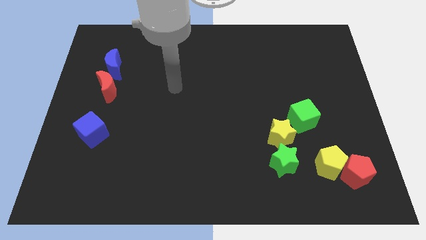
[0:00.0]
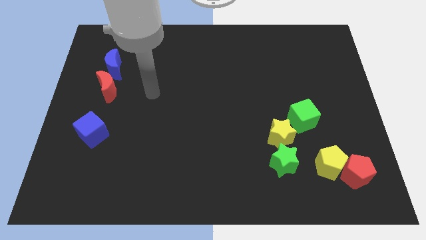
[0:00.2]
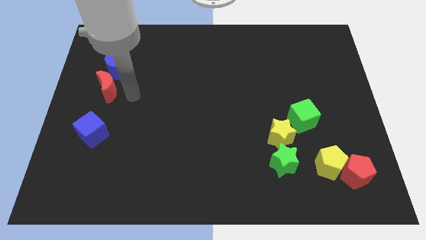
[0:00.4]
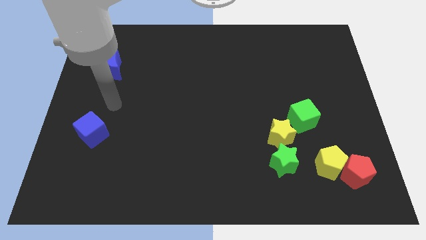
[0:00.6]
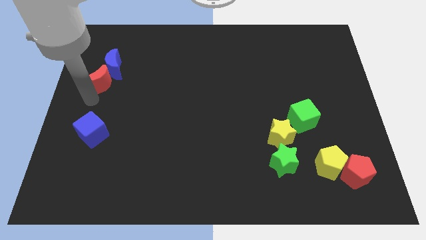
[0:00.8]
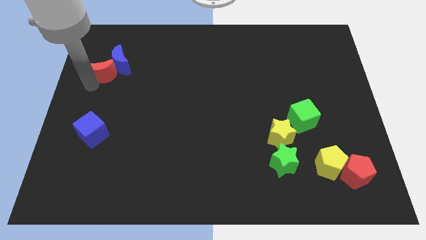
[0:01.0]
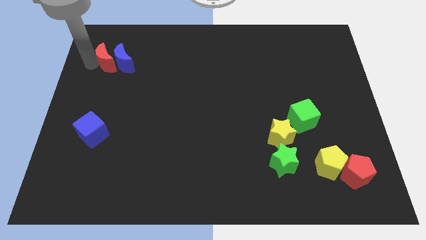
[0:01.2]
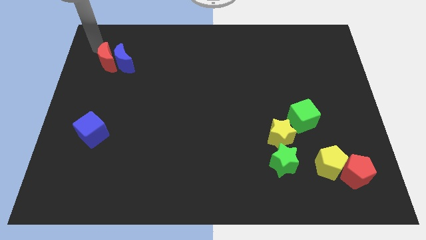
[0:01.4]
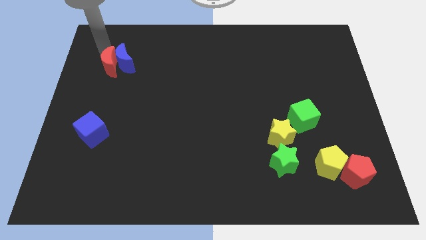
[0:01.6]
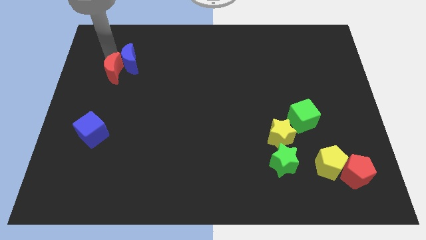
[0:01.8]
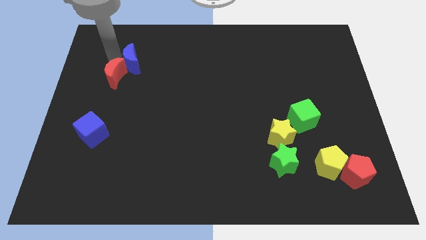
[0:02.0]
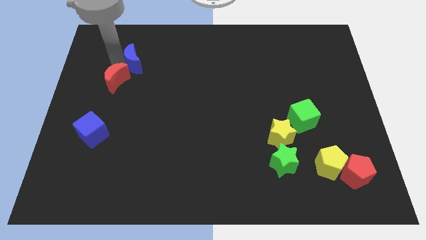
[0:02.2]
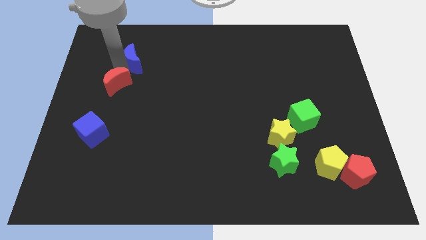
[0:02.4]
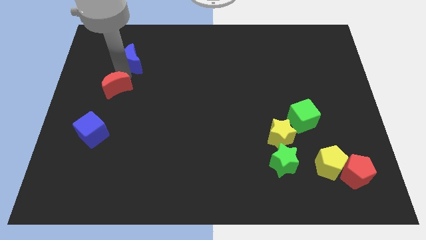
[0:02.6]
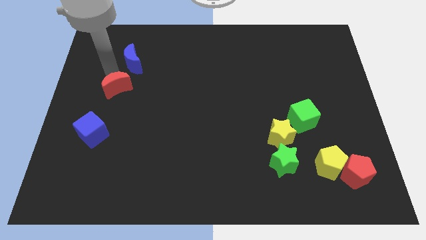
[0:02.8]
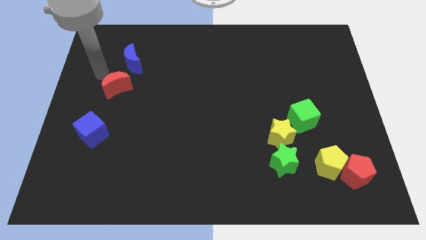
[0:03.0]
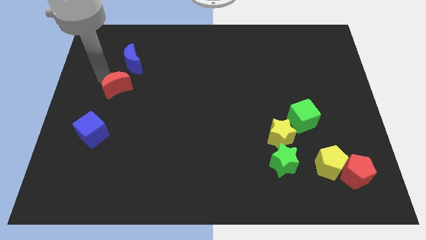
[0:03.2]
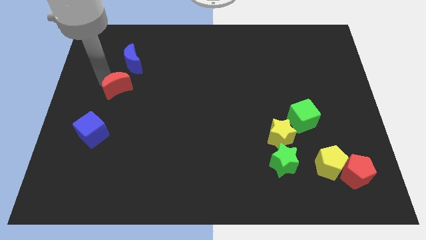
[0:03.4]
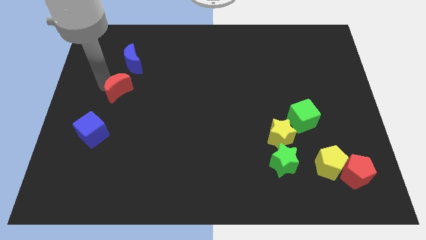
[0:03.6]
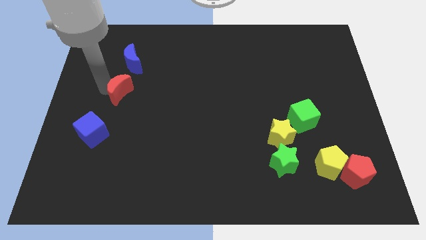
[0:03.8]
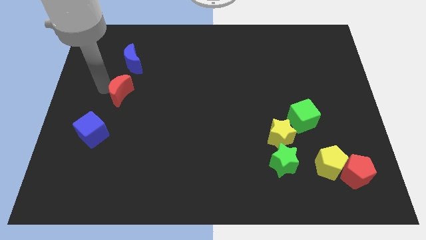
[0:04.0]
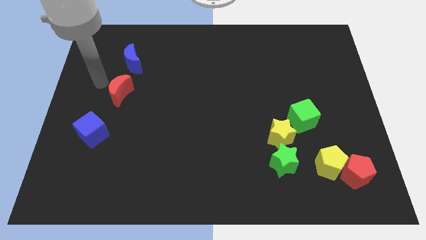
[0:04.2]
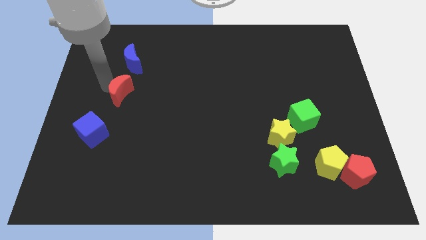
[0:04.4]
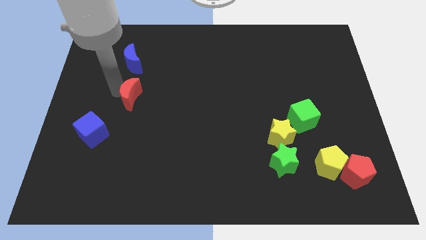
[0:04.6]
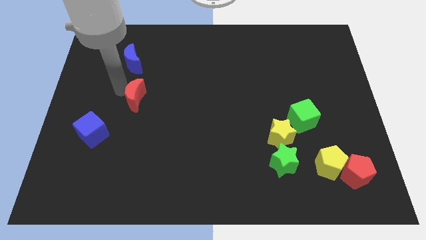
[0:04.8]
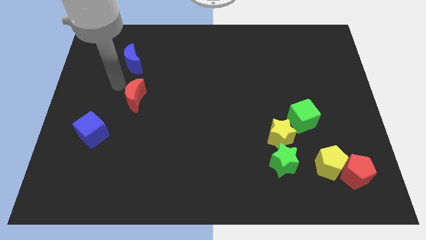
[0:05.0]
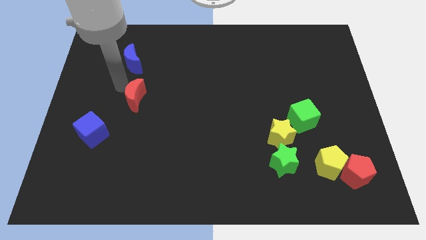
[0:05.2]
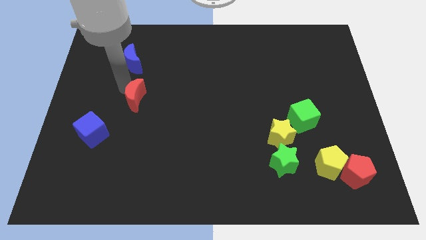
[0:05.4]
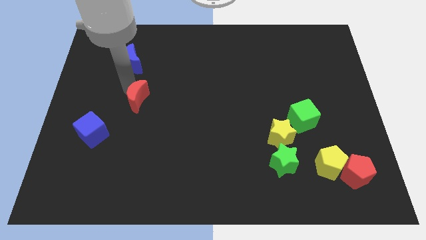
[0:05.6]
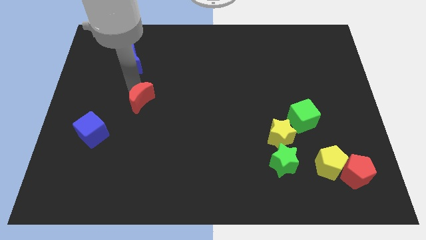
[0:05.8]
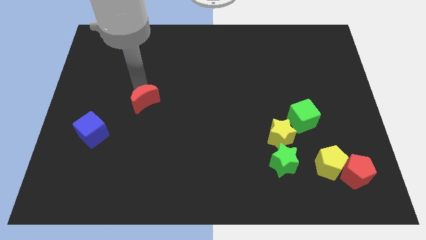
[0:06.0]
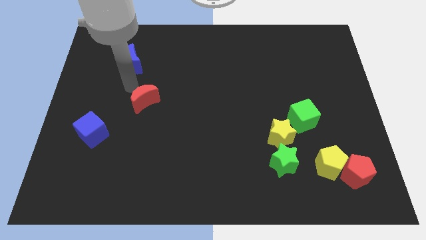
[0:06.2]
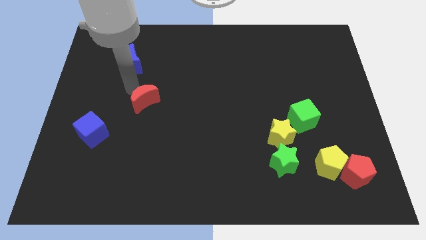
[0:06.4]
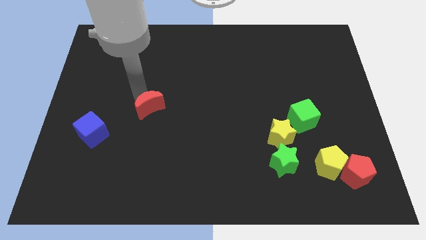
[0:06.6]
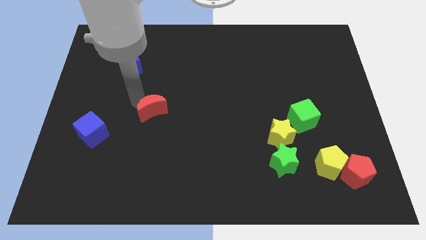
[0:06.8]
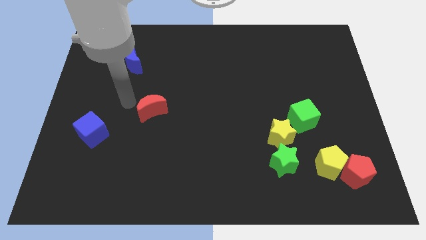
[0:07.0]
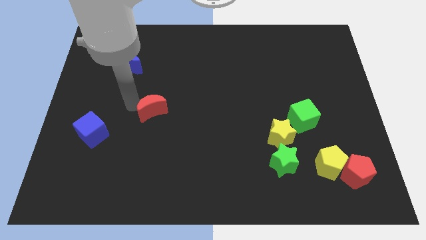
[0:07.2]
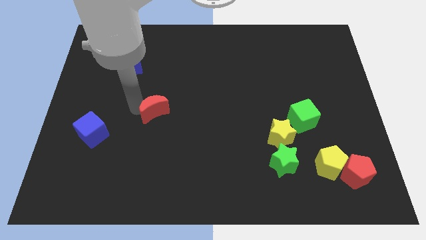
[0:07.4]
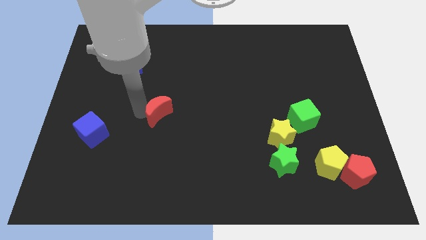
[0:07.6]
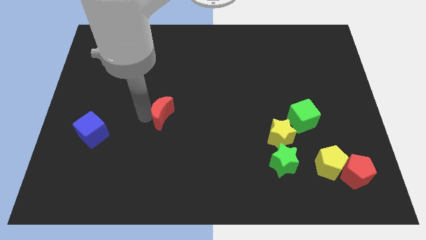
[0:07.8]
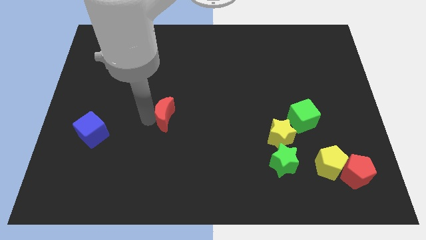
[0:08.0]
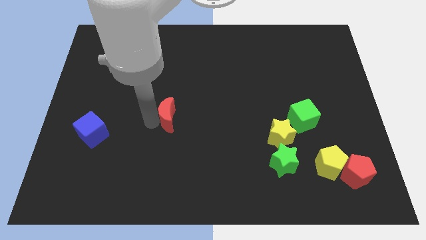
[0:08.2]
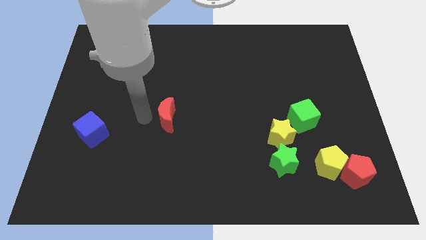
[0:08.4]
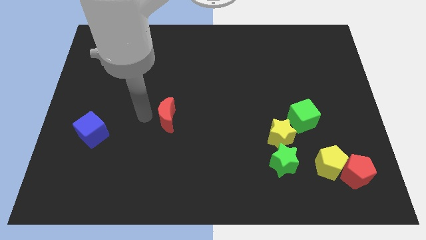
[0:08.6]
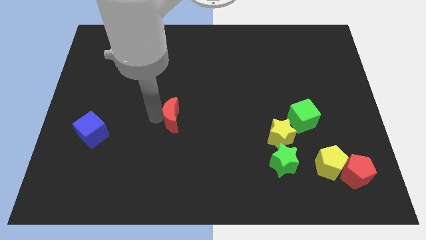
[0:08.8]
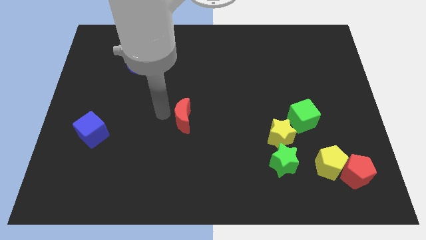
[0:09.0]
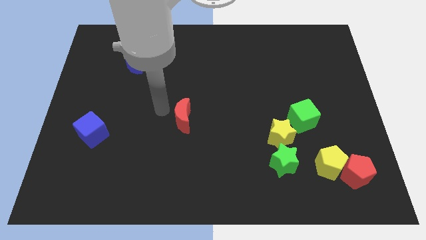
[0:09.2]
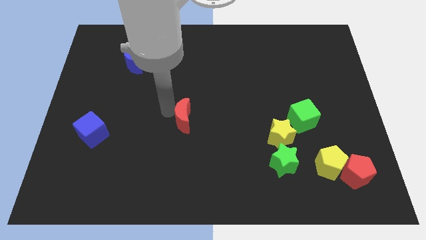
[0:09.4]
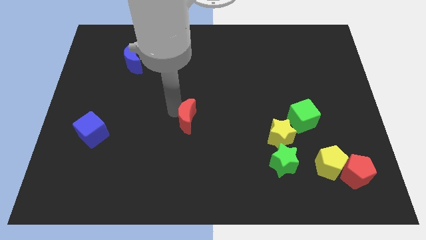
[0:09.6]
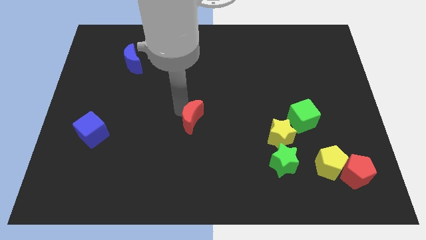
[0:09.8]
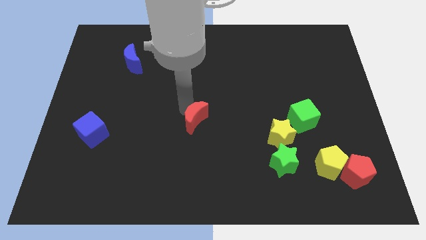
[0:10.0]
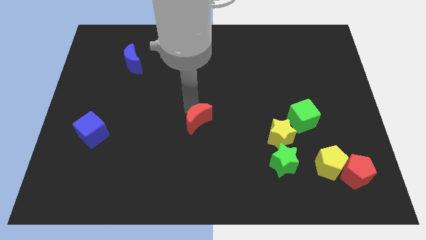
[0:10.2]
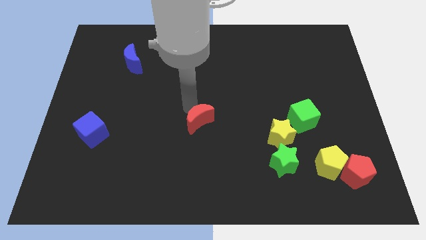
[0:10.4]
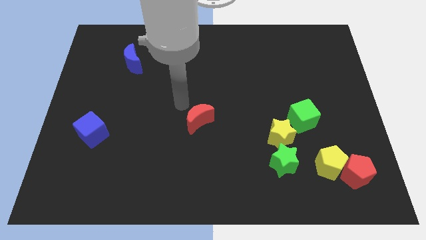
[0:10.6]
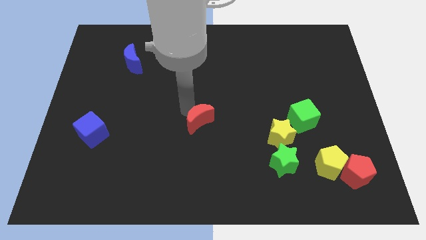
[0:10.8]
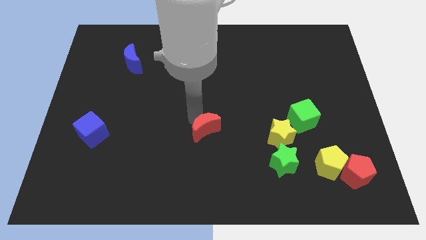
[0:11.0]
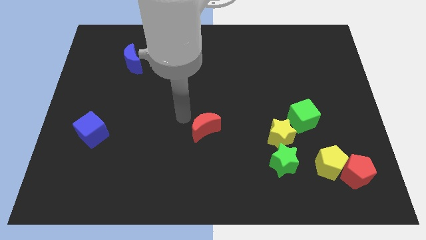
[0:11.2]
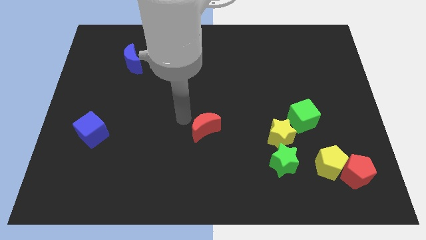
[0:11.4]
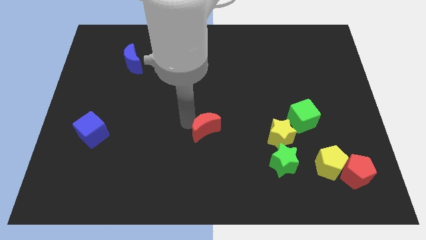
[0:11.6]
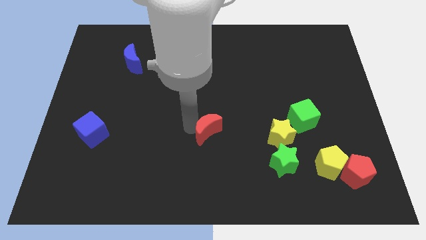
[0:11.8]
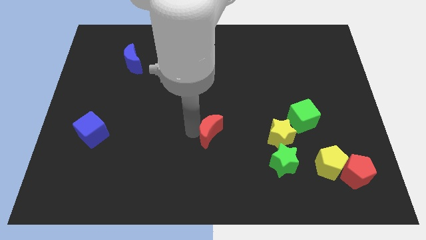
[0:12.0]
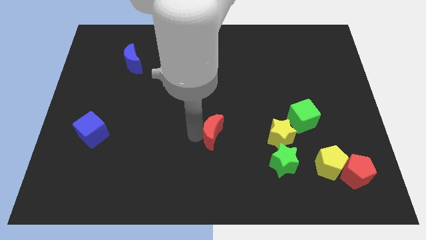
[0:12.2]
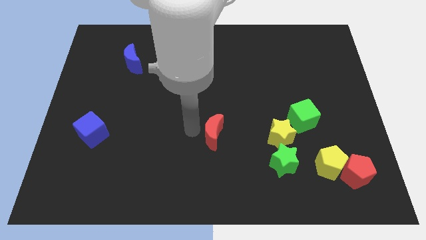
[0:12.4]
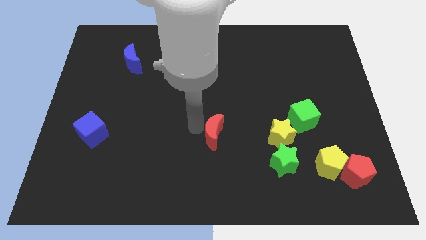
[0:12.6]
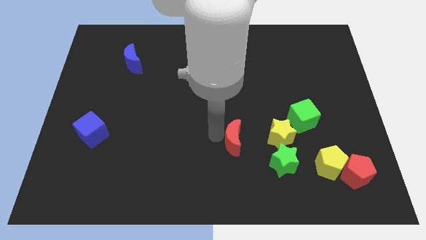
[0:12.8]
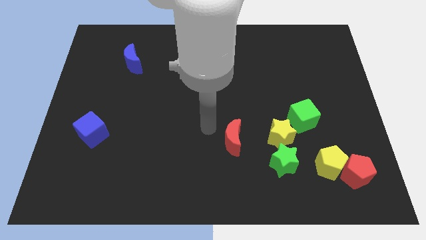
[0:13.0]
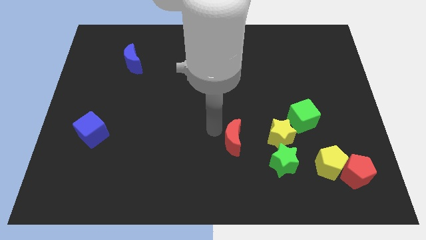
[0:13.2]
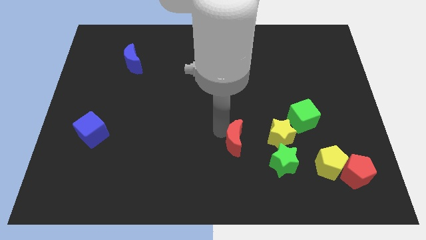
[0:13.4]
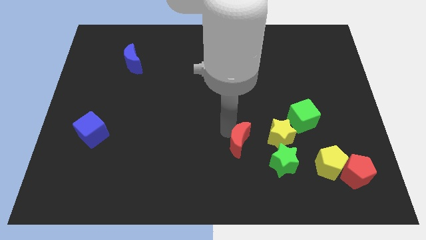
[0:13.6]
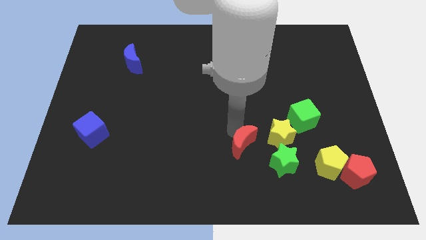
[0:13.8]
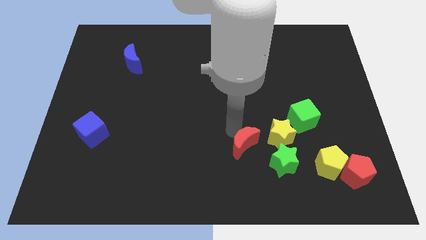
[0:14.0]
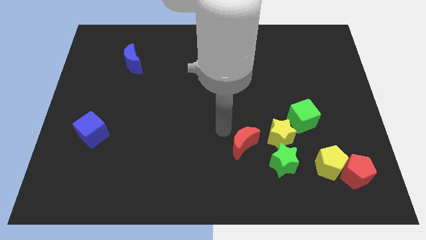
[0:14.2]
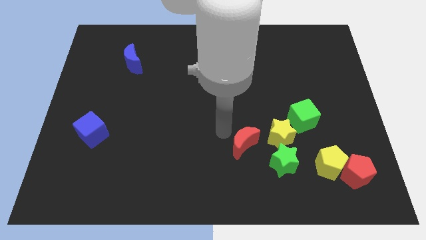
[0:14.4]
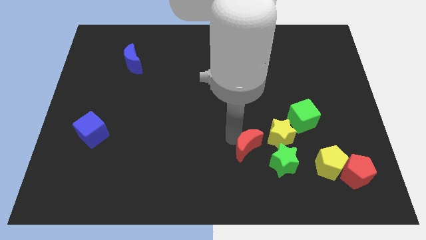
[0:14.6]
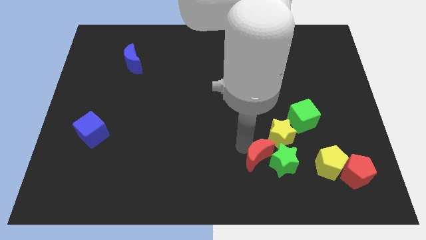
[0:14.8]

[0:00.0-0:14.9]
move the red moon to the green star
